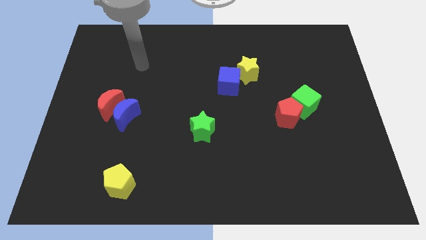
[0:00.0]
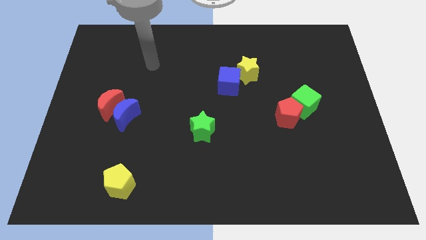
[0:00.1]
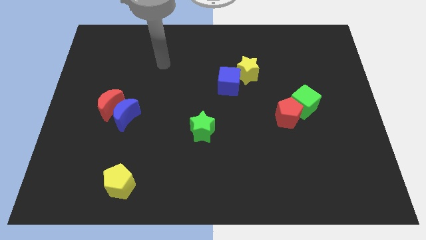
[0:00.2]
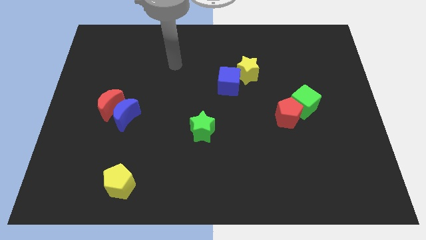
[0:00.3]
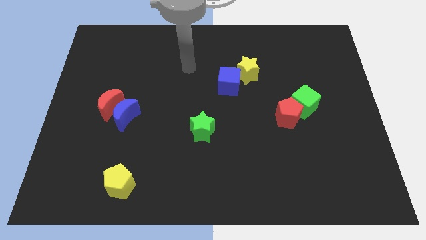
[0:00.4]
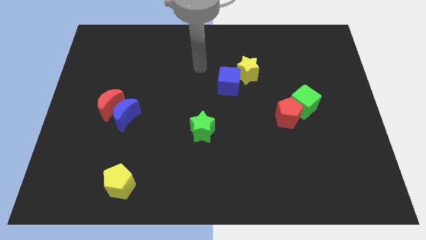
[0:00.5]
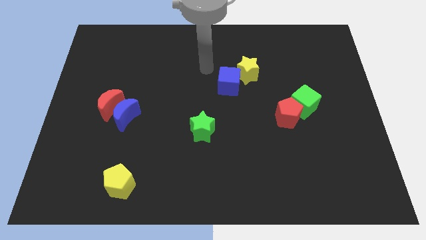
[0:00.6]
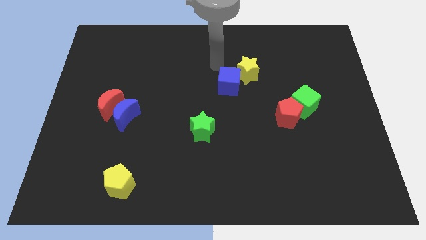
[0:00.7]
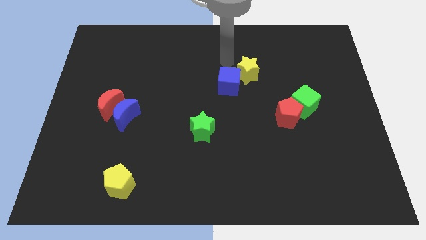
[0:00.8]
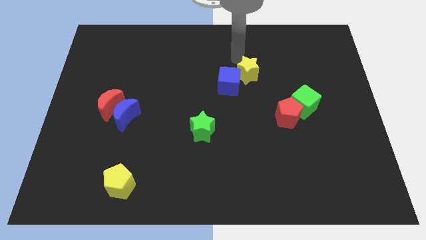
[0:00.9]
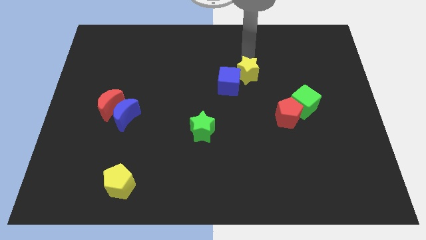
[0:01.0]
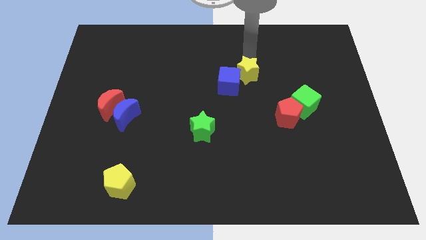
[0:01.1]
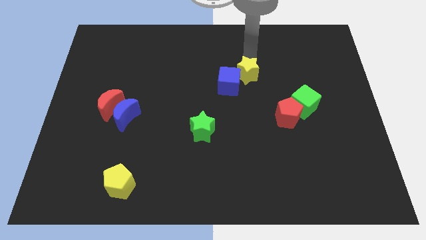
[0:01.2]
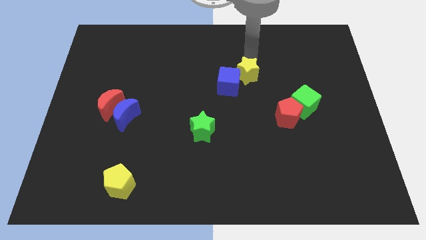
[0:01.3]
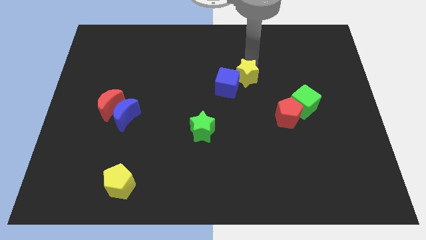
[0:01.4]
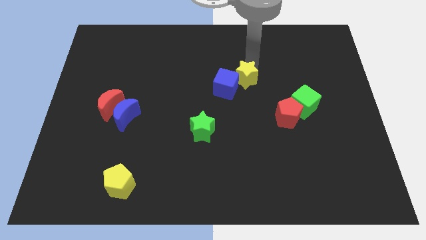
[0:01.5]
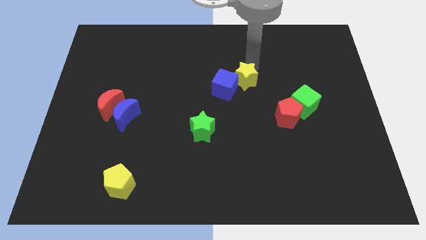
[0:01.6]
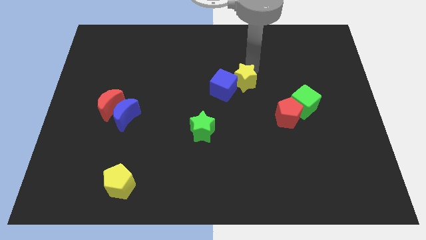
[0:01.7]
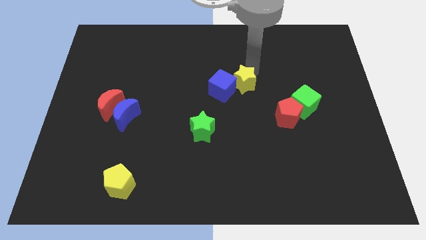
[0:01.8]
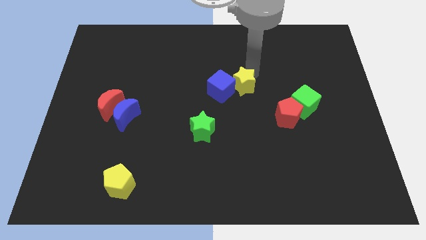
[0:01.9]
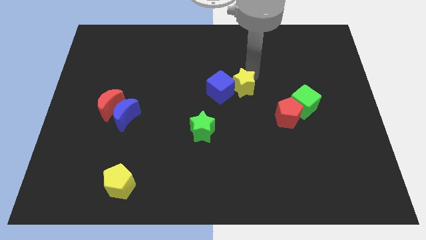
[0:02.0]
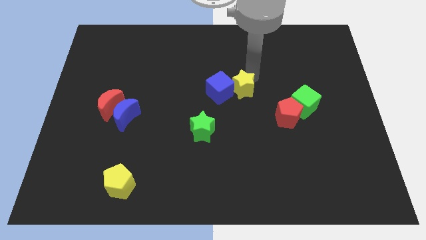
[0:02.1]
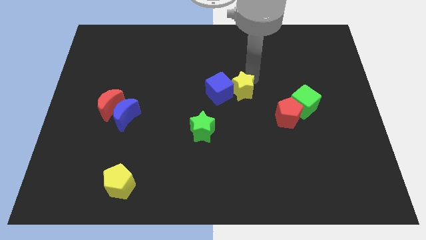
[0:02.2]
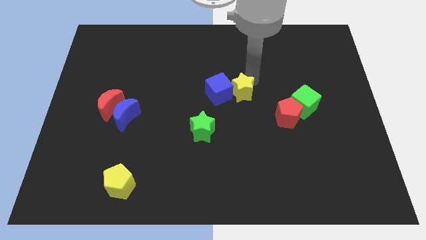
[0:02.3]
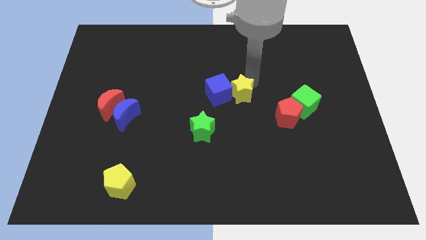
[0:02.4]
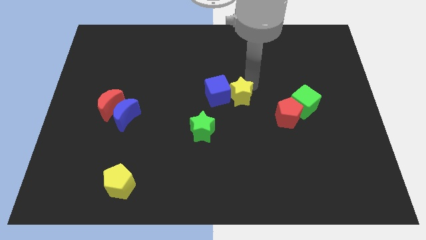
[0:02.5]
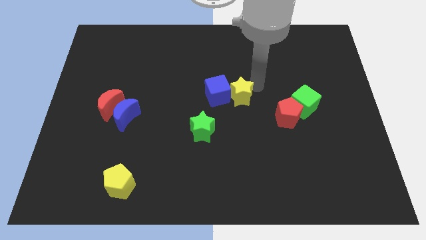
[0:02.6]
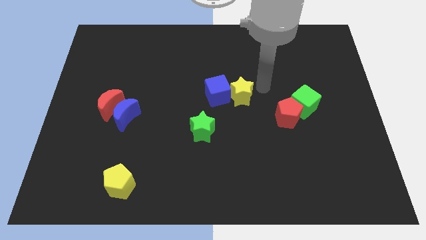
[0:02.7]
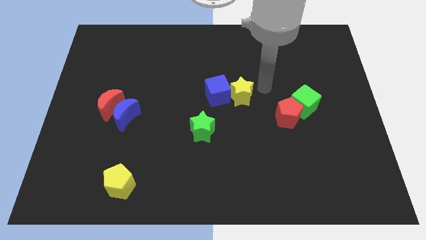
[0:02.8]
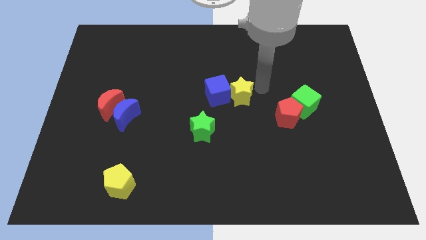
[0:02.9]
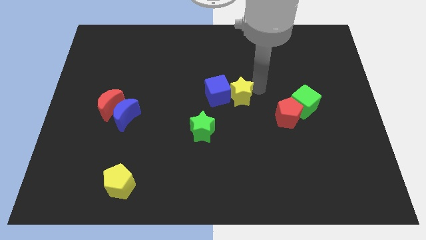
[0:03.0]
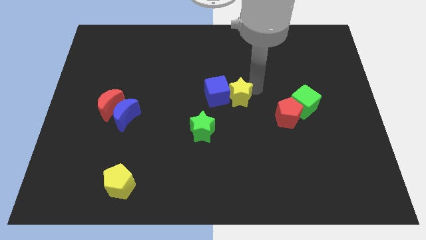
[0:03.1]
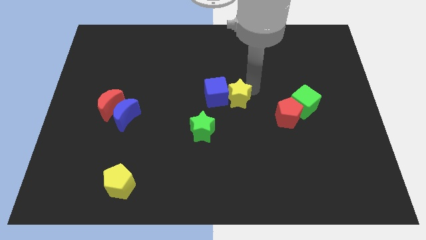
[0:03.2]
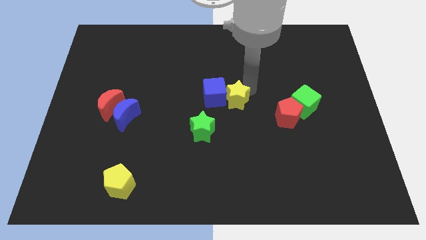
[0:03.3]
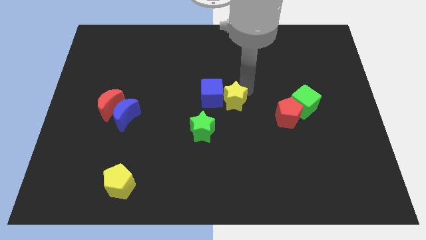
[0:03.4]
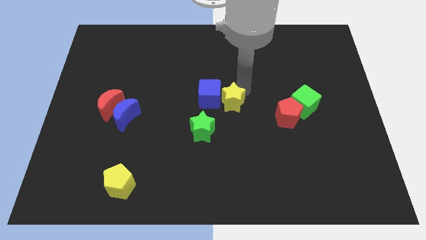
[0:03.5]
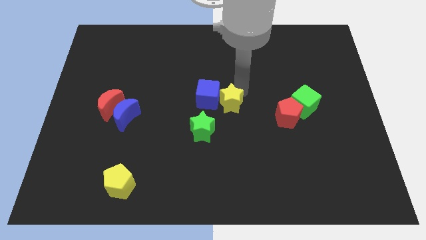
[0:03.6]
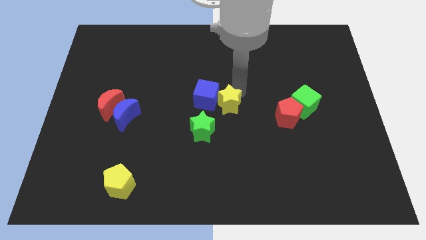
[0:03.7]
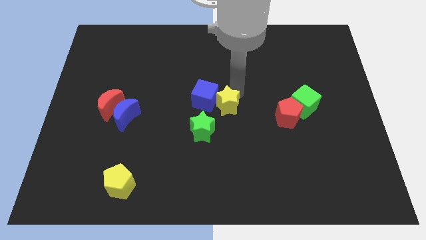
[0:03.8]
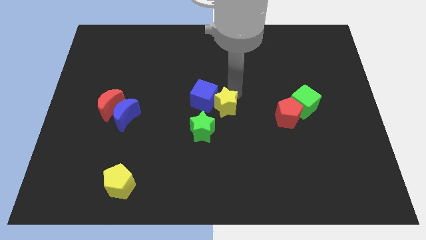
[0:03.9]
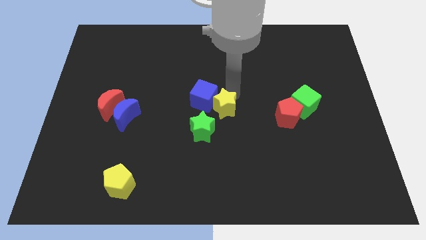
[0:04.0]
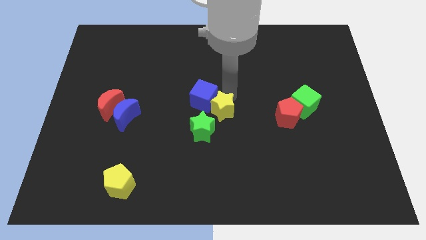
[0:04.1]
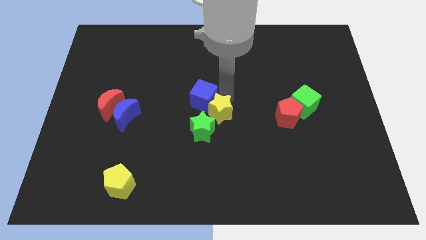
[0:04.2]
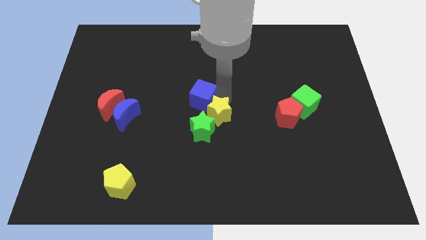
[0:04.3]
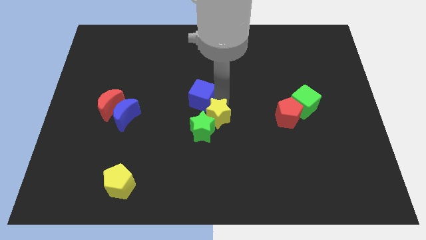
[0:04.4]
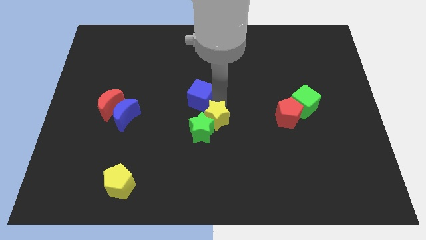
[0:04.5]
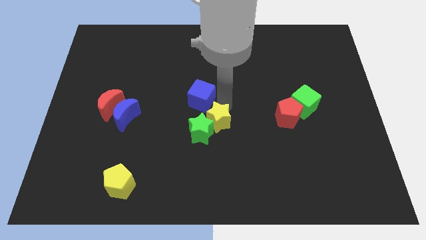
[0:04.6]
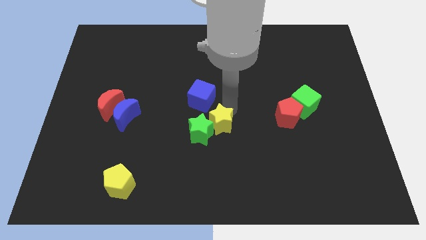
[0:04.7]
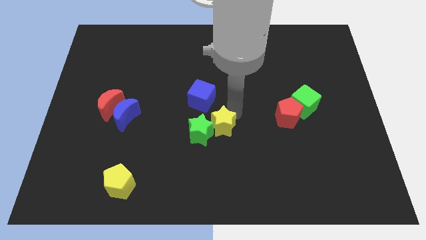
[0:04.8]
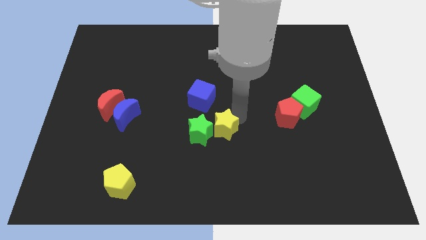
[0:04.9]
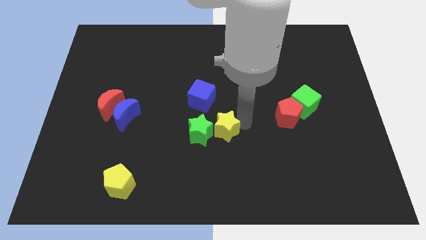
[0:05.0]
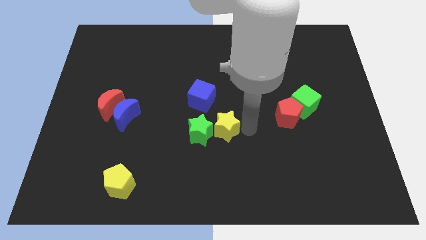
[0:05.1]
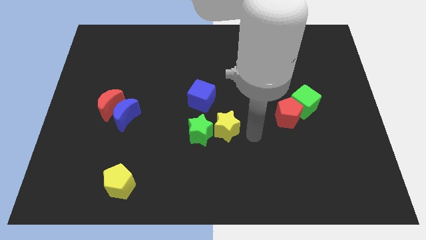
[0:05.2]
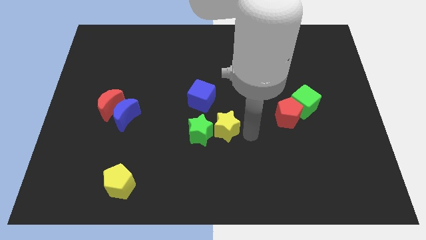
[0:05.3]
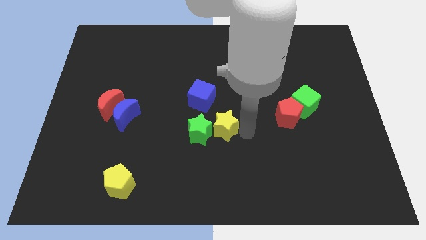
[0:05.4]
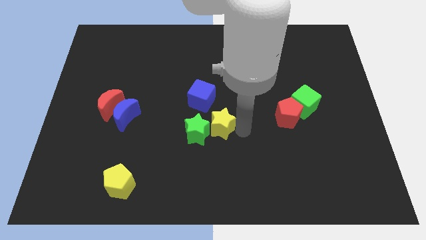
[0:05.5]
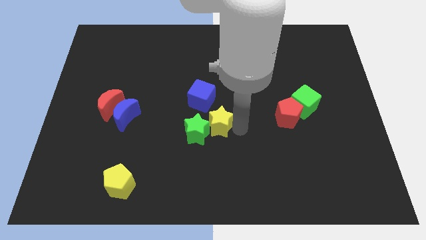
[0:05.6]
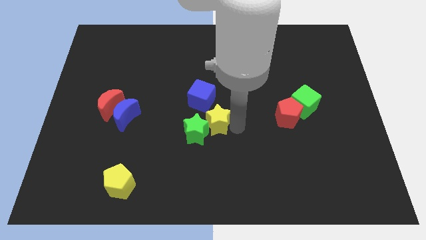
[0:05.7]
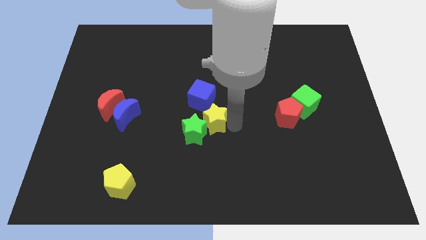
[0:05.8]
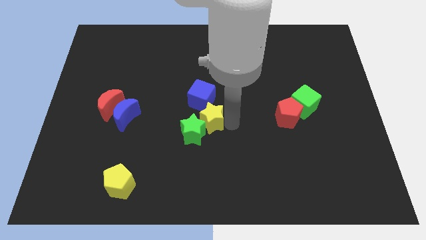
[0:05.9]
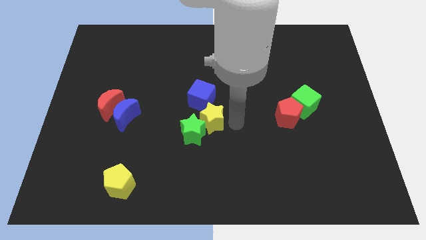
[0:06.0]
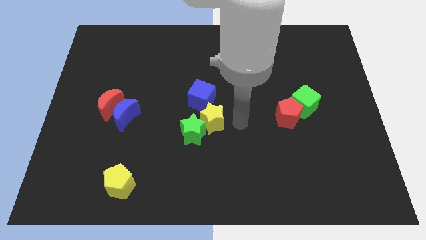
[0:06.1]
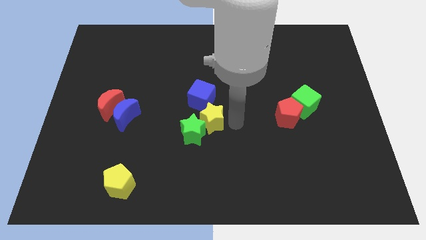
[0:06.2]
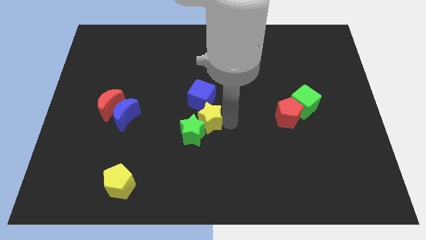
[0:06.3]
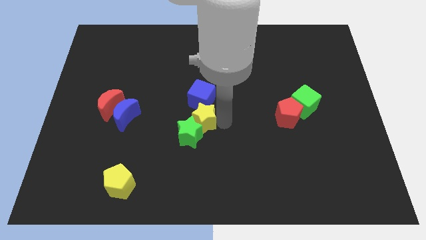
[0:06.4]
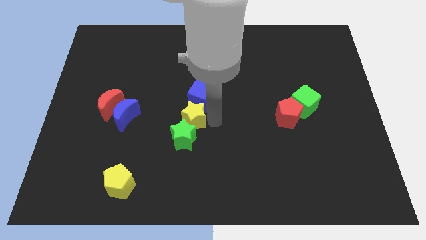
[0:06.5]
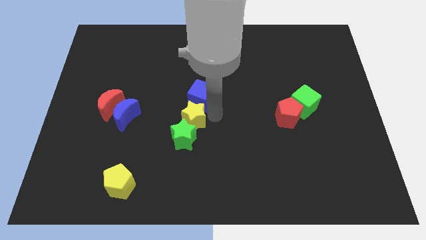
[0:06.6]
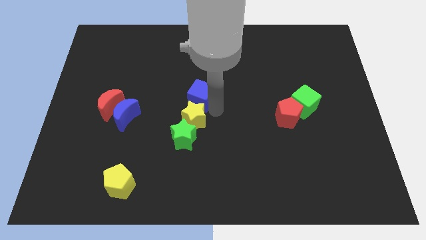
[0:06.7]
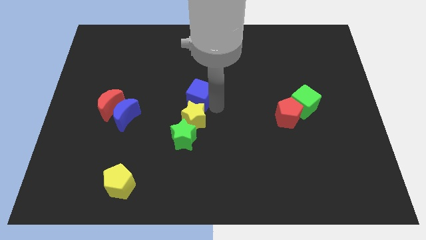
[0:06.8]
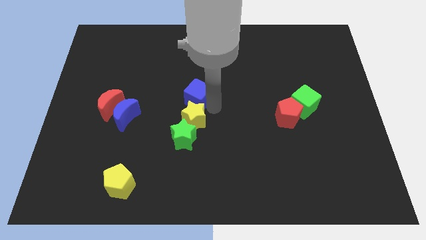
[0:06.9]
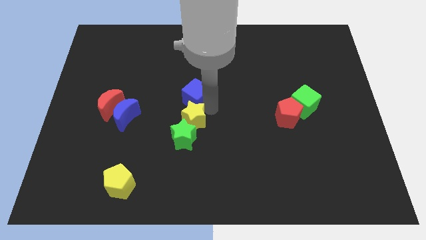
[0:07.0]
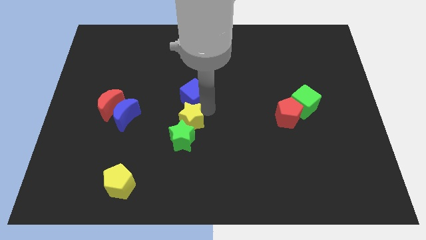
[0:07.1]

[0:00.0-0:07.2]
push the yellow star downwards and to the left
